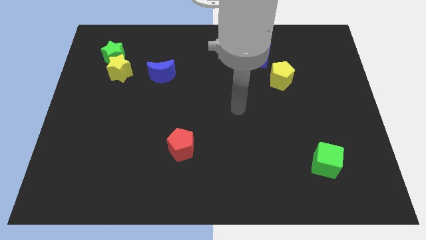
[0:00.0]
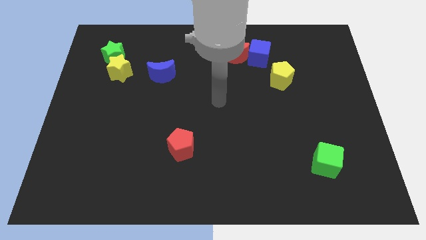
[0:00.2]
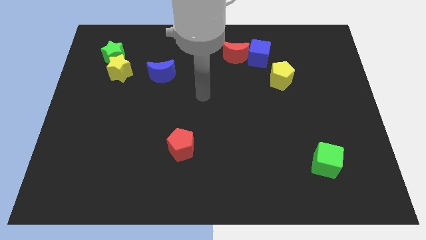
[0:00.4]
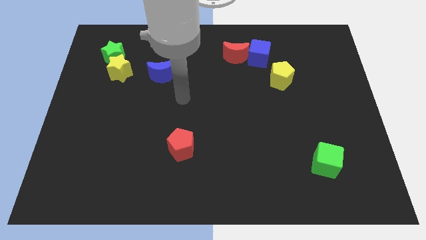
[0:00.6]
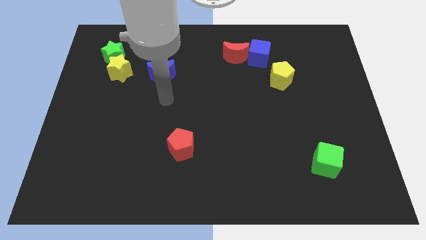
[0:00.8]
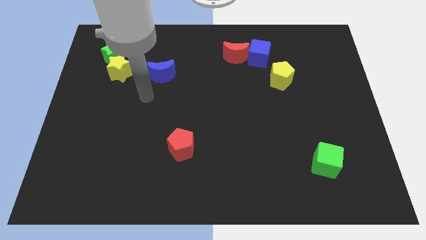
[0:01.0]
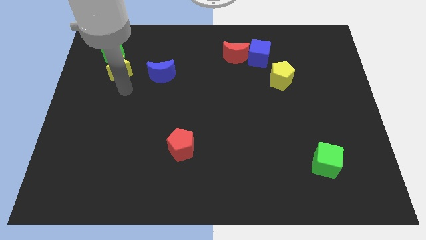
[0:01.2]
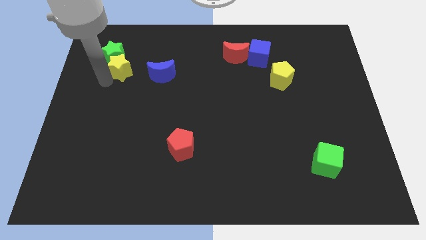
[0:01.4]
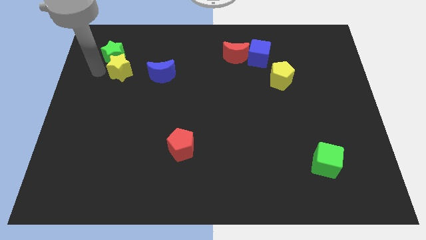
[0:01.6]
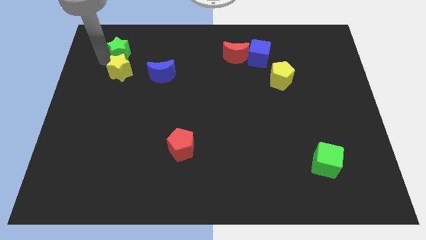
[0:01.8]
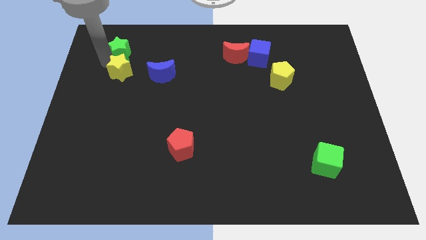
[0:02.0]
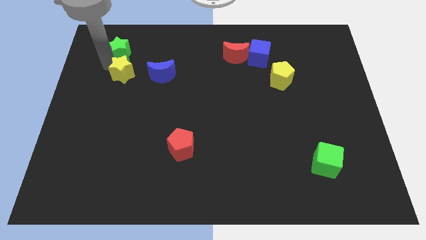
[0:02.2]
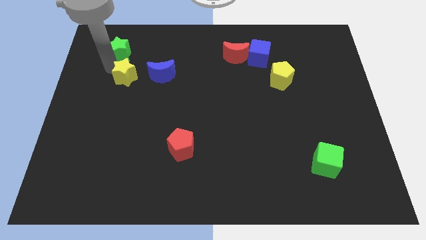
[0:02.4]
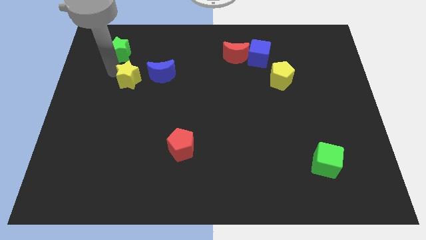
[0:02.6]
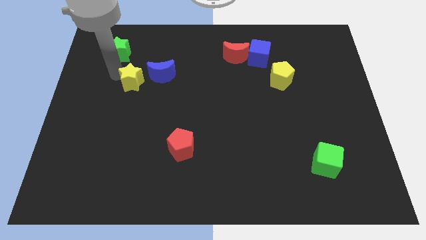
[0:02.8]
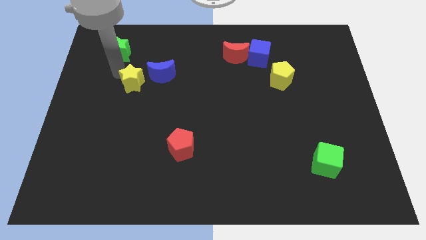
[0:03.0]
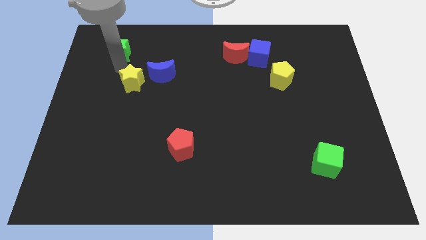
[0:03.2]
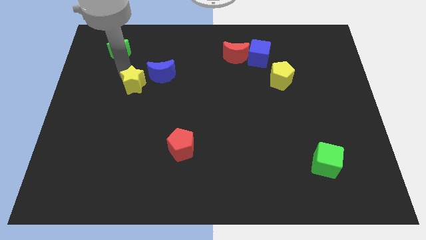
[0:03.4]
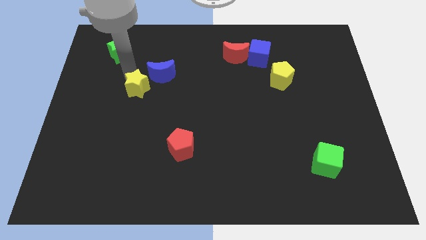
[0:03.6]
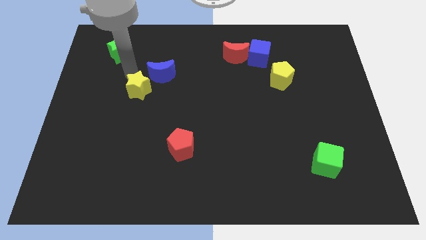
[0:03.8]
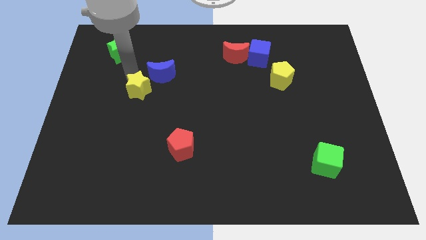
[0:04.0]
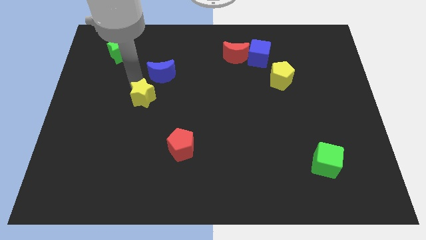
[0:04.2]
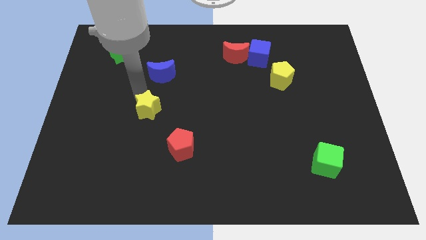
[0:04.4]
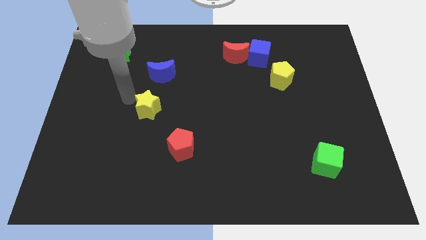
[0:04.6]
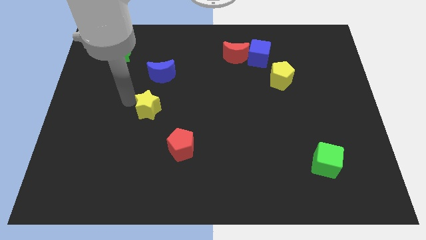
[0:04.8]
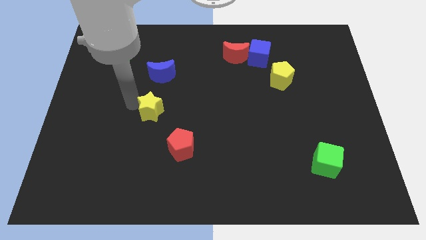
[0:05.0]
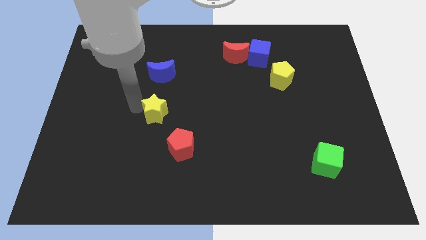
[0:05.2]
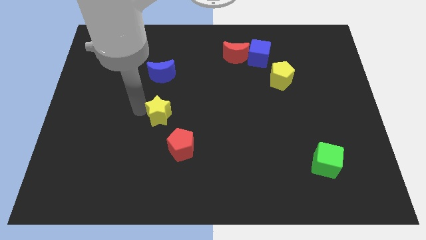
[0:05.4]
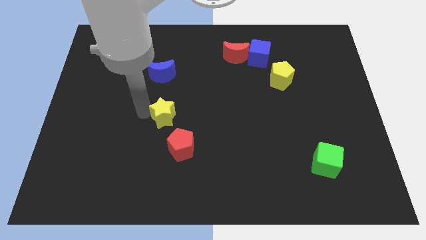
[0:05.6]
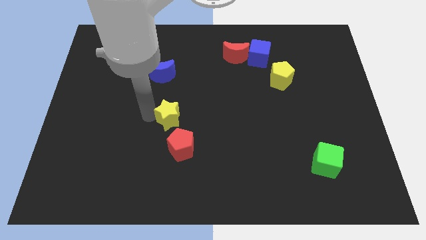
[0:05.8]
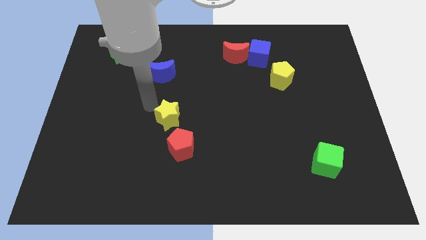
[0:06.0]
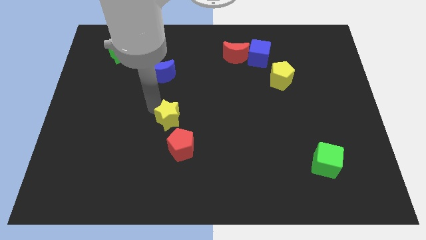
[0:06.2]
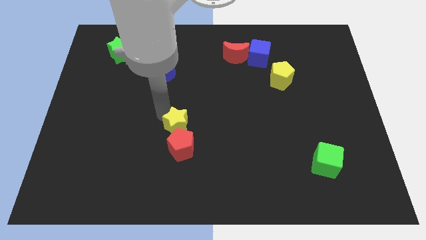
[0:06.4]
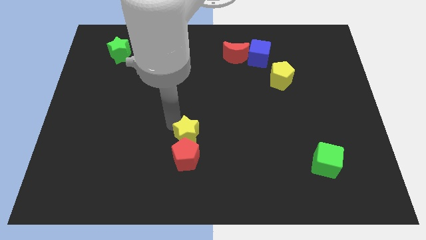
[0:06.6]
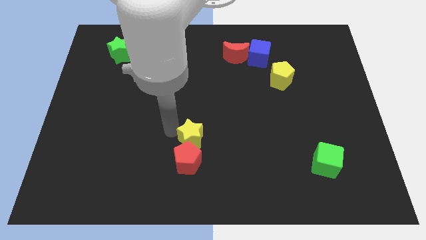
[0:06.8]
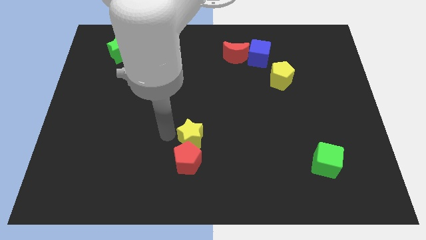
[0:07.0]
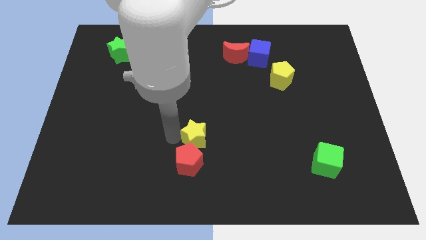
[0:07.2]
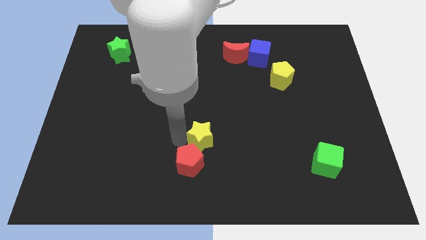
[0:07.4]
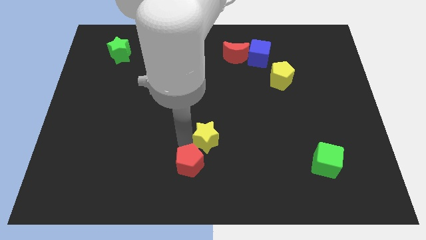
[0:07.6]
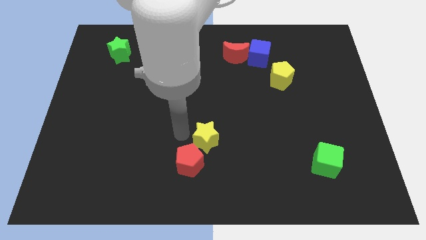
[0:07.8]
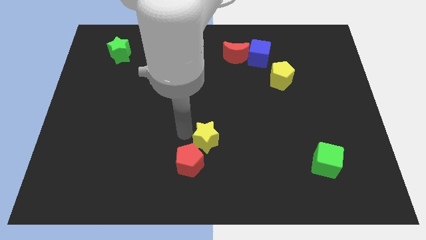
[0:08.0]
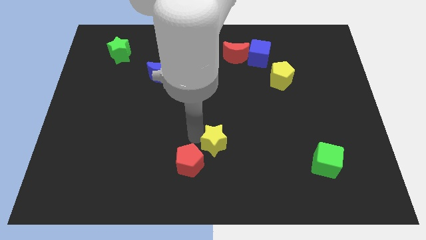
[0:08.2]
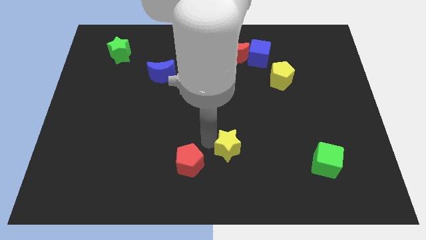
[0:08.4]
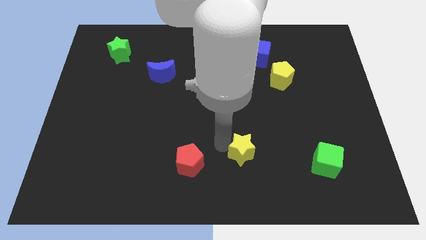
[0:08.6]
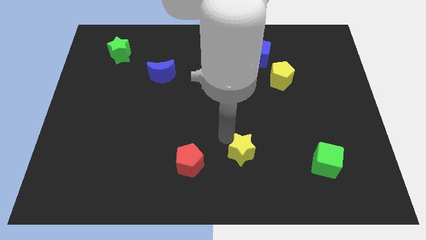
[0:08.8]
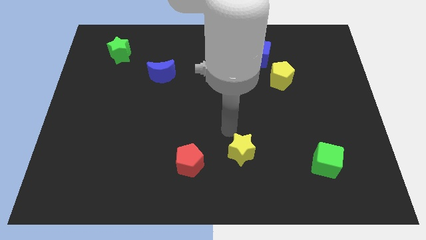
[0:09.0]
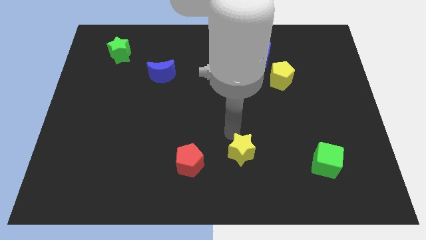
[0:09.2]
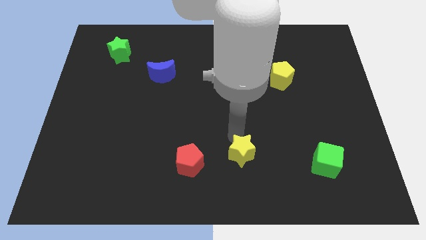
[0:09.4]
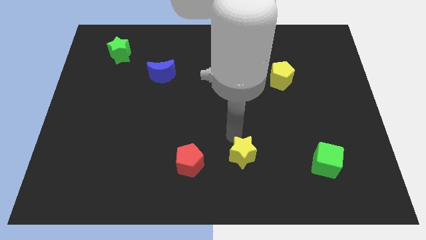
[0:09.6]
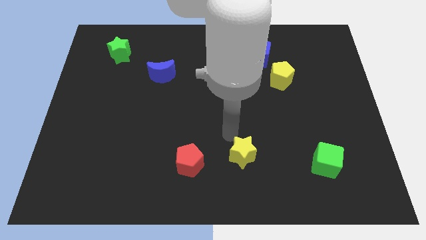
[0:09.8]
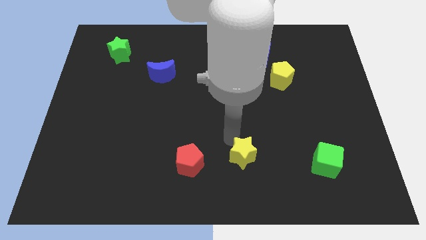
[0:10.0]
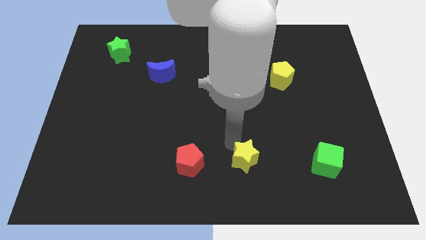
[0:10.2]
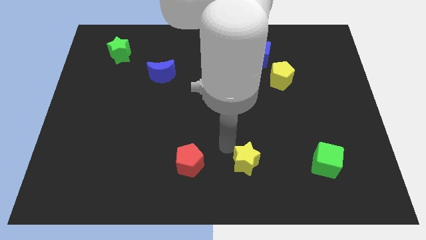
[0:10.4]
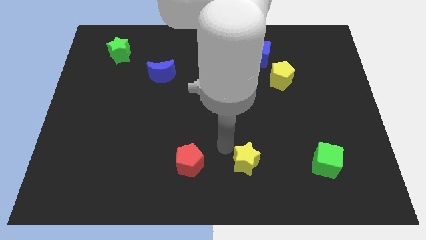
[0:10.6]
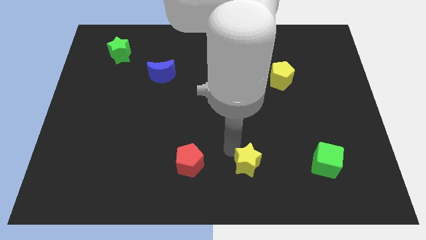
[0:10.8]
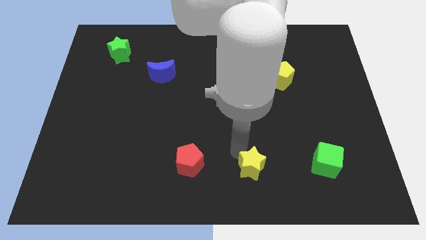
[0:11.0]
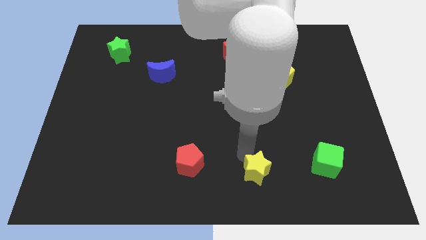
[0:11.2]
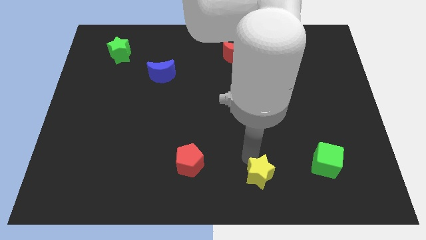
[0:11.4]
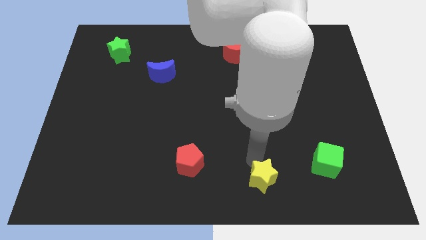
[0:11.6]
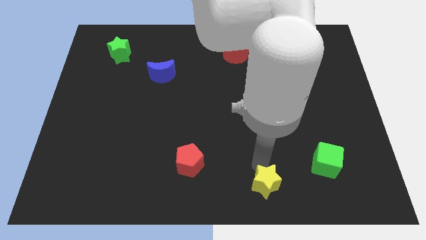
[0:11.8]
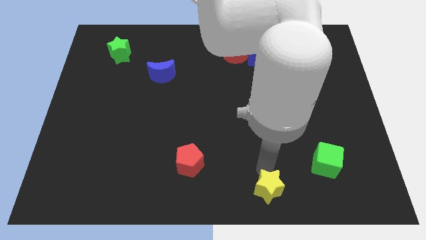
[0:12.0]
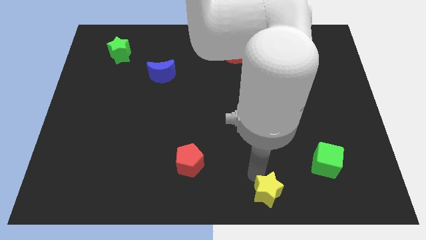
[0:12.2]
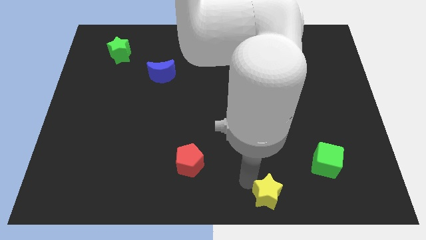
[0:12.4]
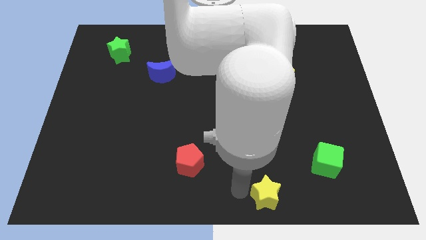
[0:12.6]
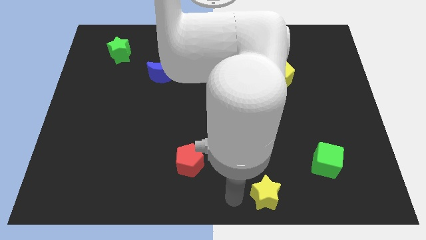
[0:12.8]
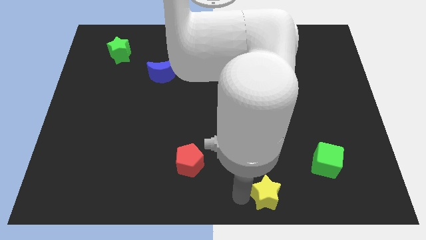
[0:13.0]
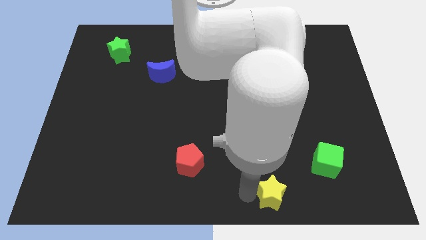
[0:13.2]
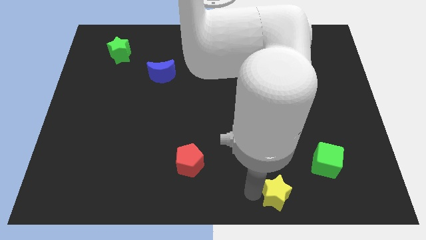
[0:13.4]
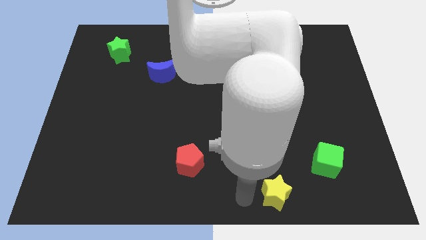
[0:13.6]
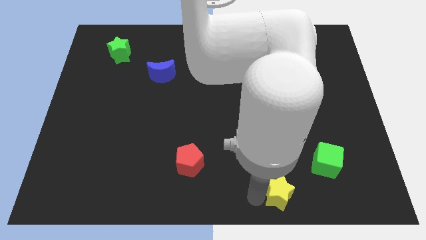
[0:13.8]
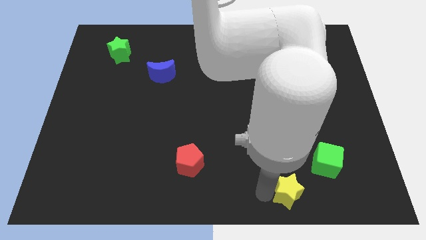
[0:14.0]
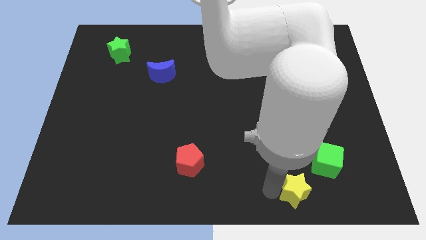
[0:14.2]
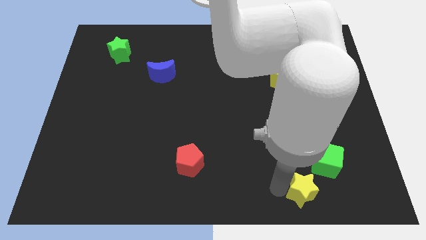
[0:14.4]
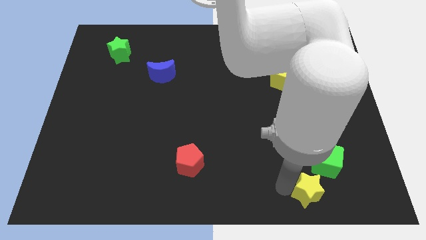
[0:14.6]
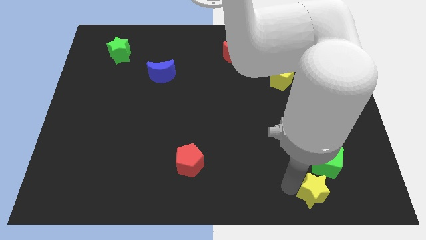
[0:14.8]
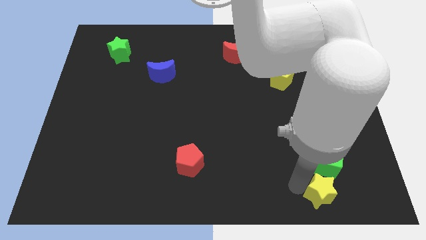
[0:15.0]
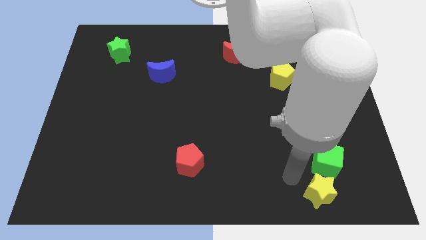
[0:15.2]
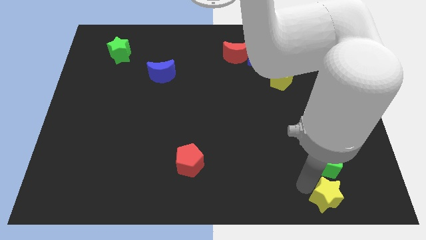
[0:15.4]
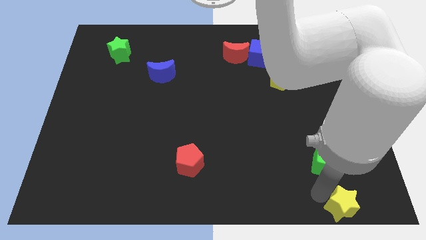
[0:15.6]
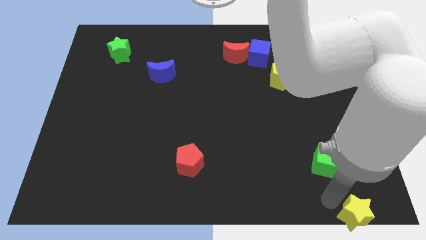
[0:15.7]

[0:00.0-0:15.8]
push the yellow star to the lower right corner
